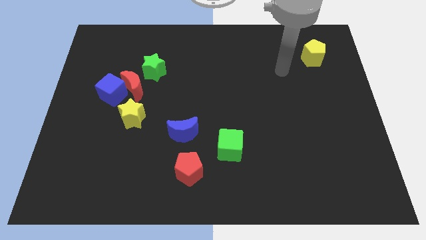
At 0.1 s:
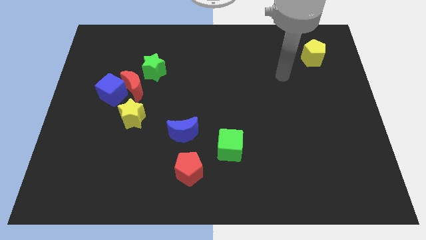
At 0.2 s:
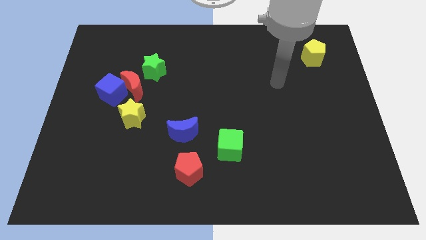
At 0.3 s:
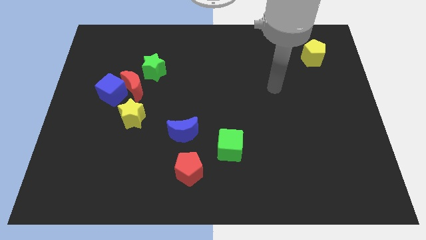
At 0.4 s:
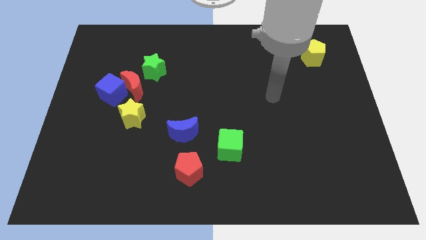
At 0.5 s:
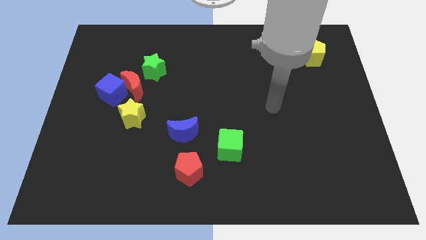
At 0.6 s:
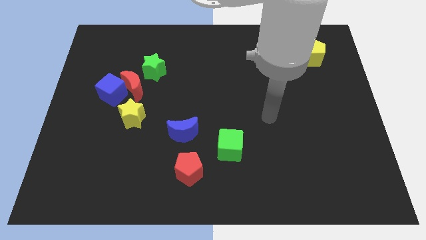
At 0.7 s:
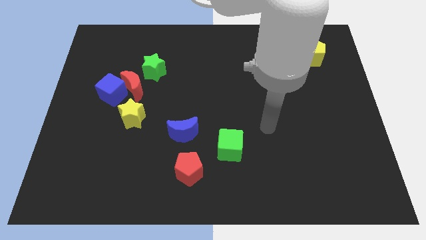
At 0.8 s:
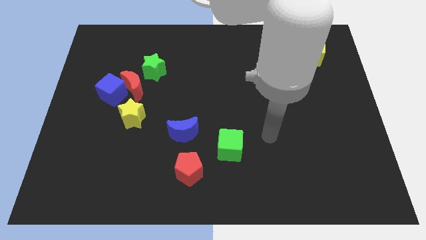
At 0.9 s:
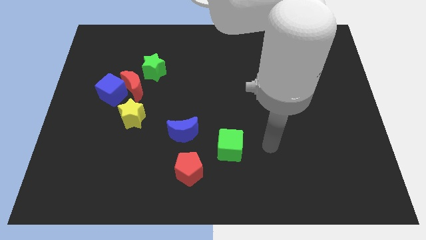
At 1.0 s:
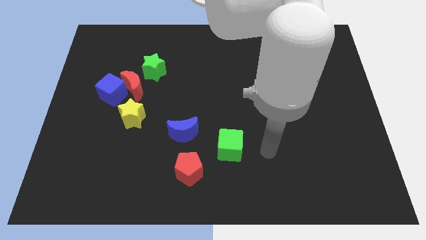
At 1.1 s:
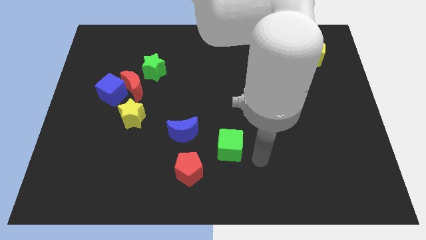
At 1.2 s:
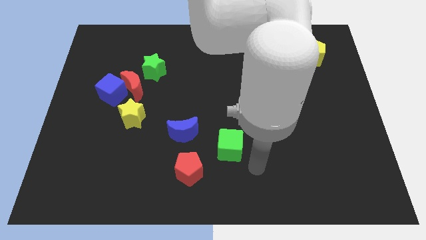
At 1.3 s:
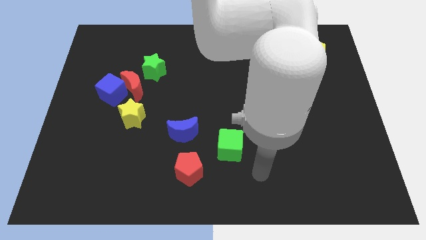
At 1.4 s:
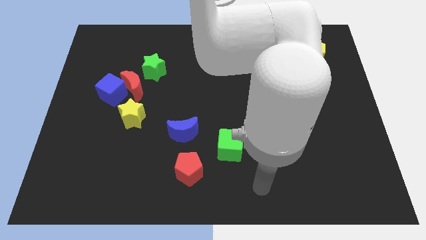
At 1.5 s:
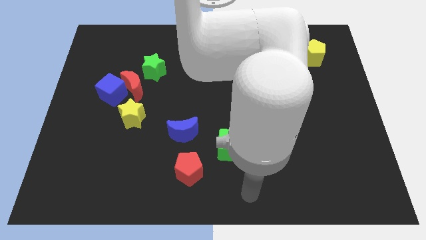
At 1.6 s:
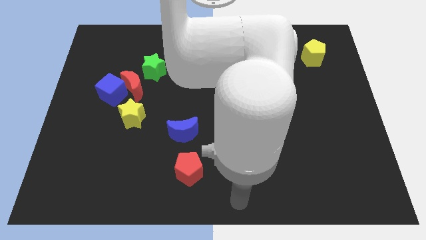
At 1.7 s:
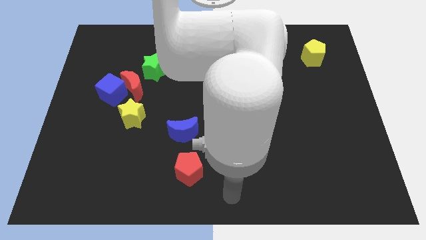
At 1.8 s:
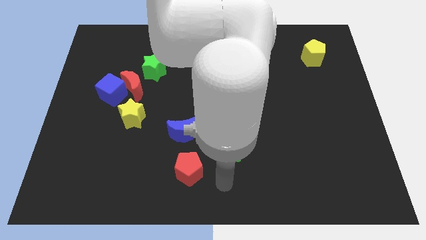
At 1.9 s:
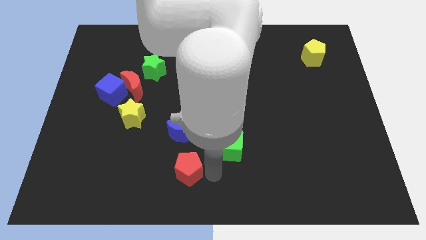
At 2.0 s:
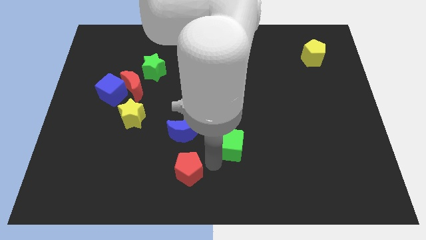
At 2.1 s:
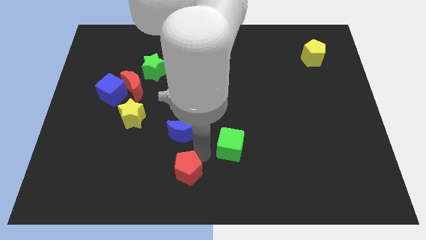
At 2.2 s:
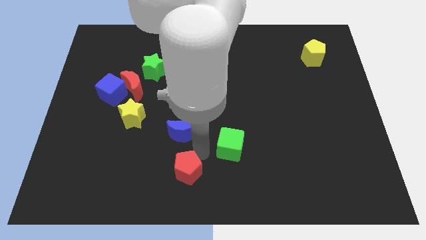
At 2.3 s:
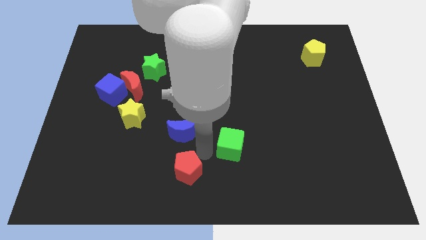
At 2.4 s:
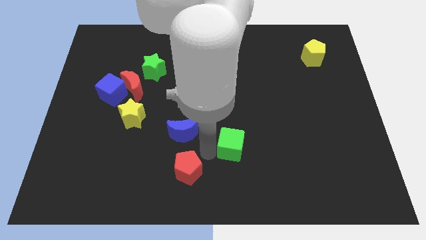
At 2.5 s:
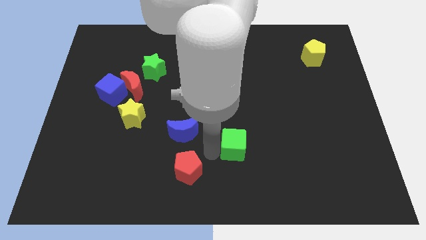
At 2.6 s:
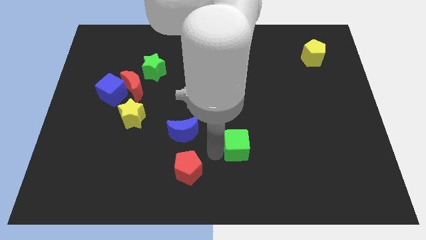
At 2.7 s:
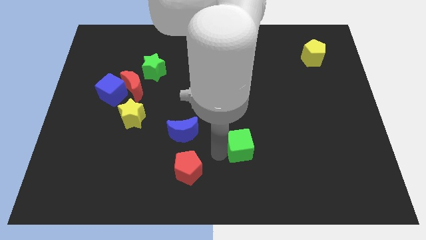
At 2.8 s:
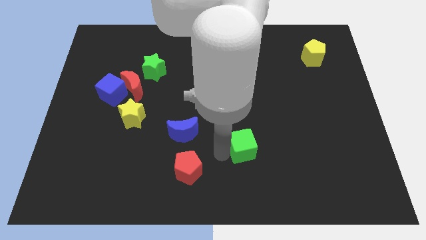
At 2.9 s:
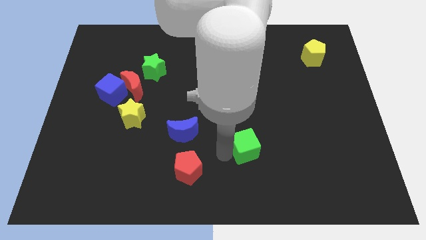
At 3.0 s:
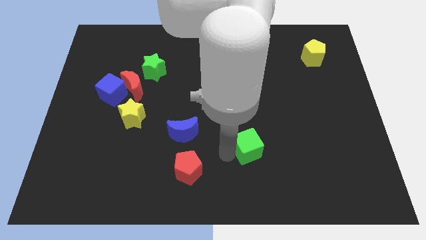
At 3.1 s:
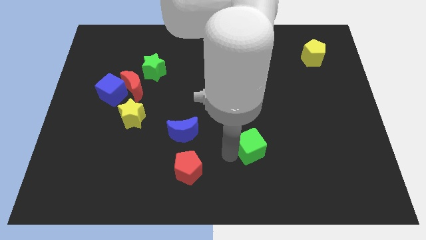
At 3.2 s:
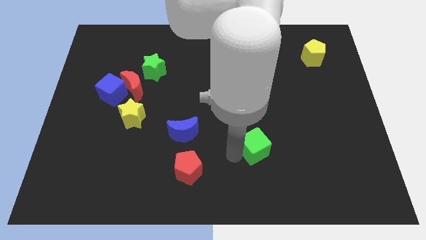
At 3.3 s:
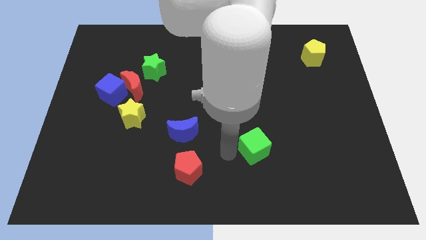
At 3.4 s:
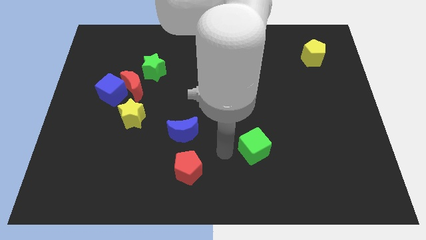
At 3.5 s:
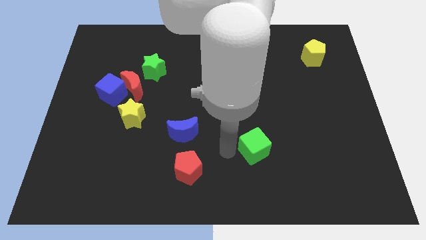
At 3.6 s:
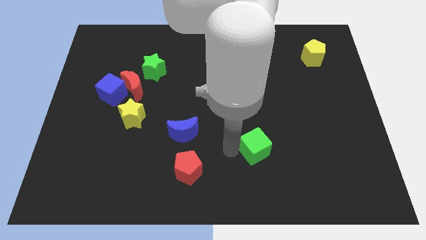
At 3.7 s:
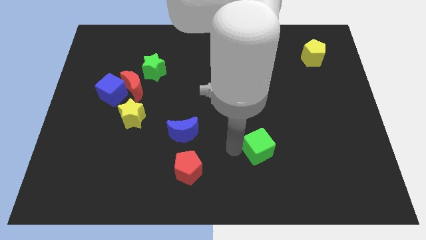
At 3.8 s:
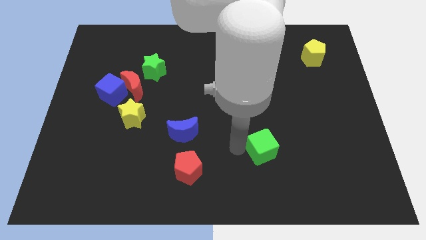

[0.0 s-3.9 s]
push the green cube a little right

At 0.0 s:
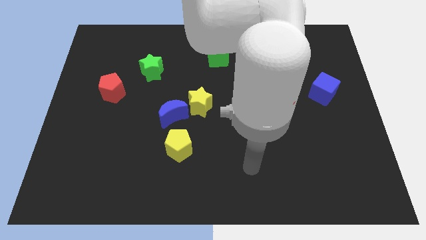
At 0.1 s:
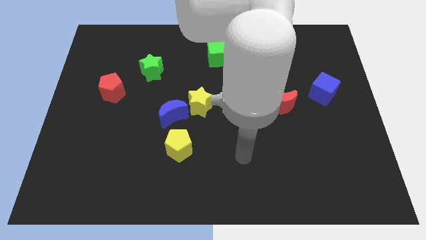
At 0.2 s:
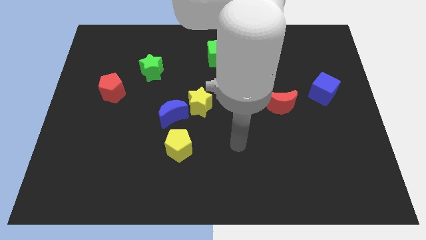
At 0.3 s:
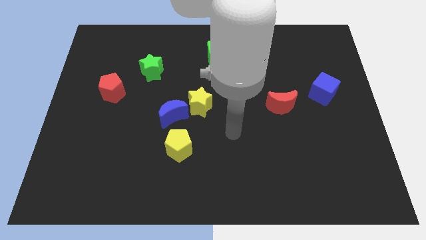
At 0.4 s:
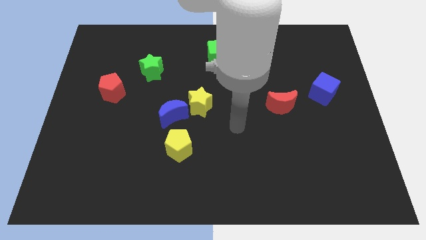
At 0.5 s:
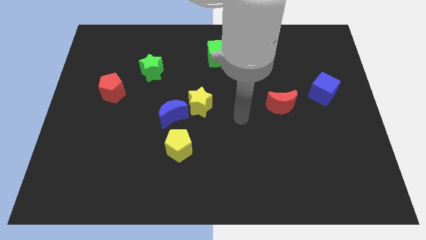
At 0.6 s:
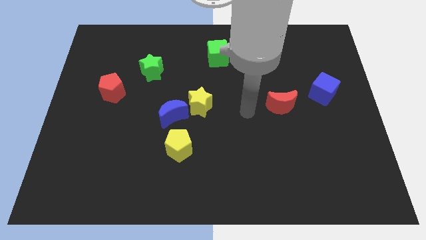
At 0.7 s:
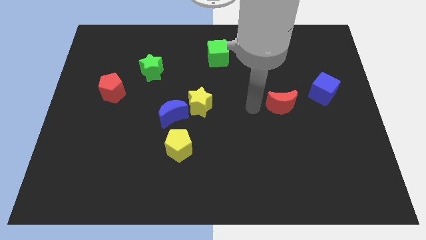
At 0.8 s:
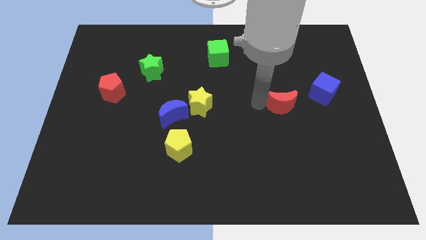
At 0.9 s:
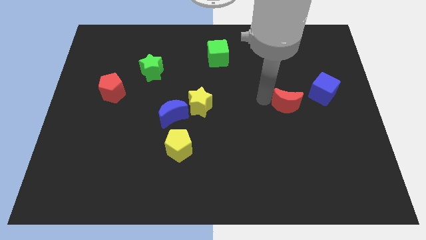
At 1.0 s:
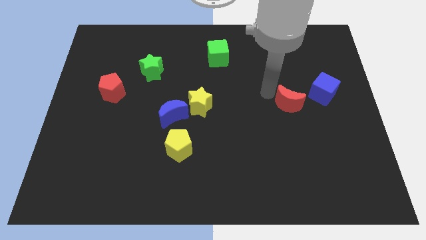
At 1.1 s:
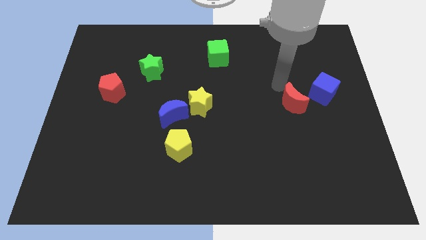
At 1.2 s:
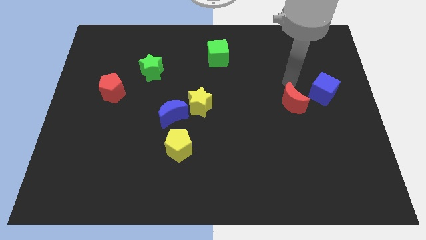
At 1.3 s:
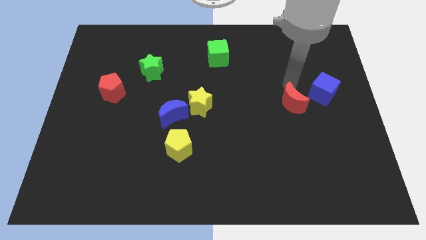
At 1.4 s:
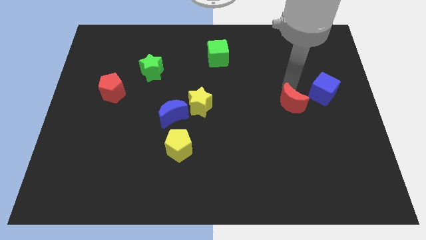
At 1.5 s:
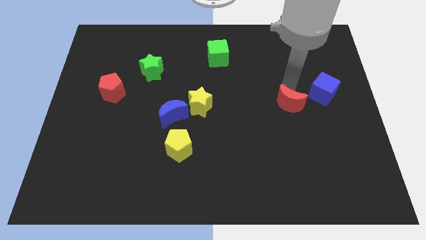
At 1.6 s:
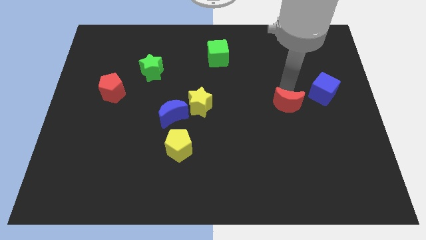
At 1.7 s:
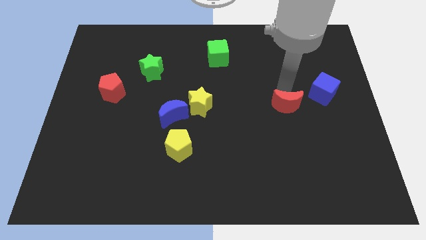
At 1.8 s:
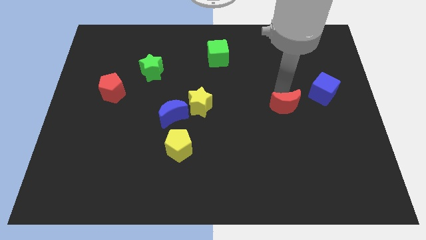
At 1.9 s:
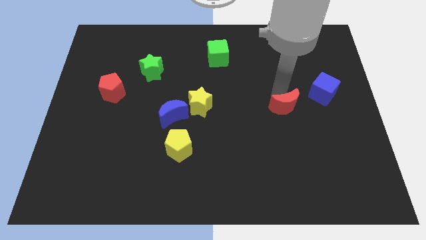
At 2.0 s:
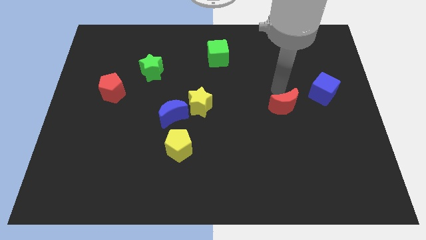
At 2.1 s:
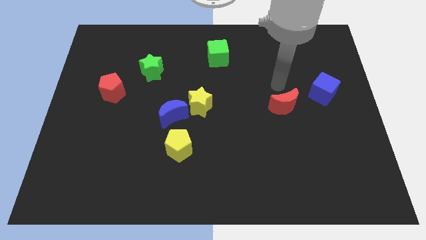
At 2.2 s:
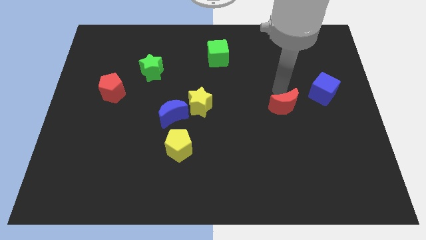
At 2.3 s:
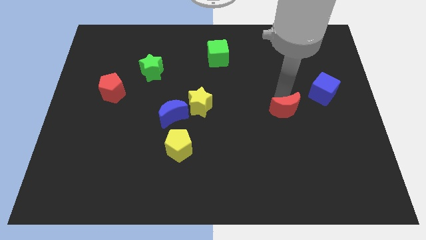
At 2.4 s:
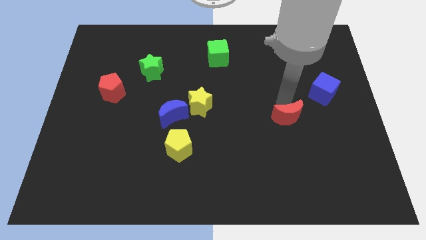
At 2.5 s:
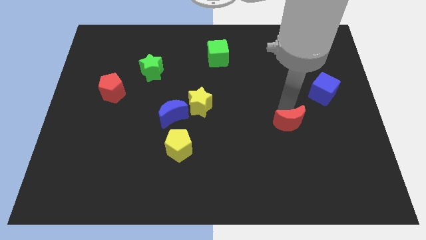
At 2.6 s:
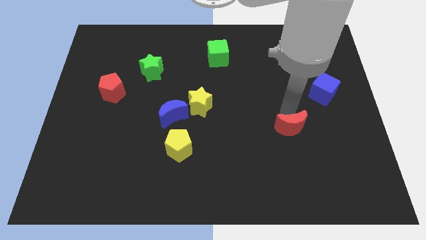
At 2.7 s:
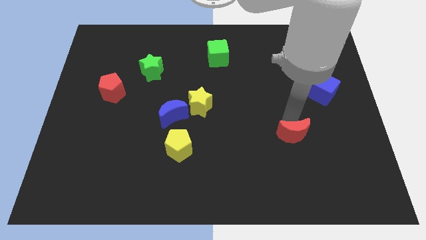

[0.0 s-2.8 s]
slide the red moon a little bit down

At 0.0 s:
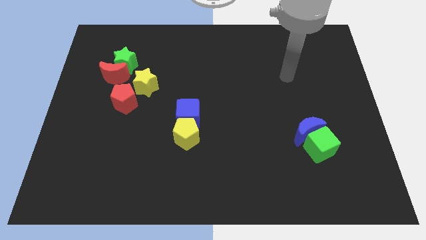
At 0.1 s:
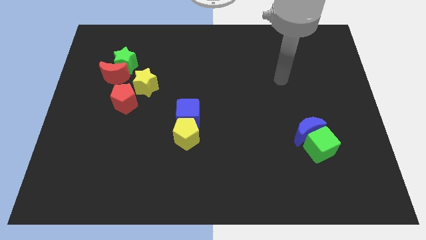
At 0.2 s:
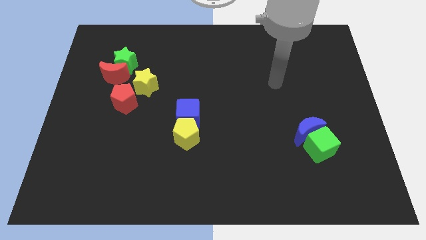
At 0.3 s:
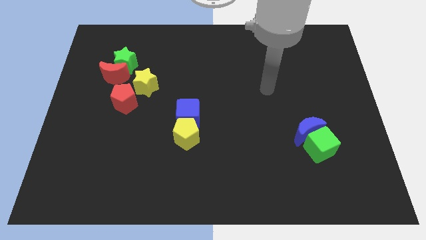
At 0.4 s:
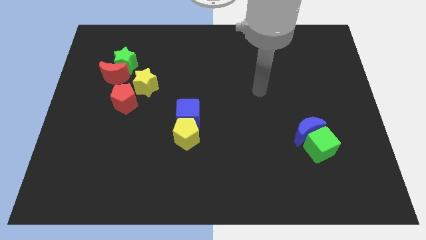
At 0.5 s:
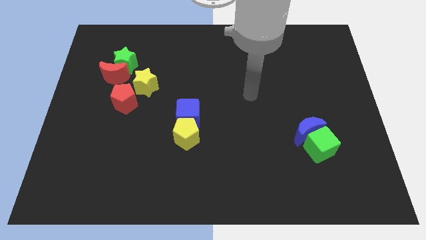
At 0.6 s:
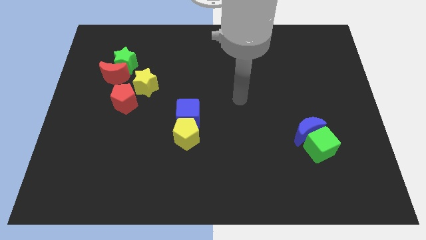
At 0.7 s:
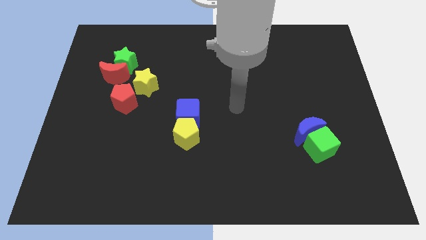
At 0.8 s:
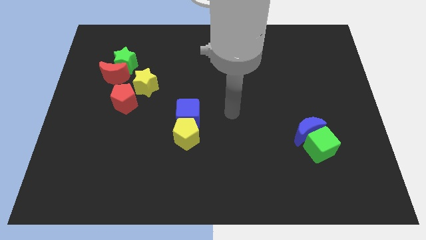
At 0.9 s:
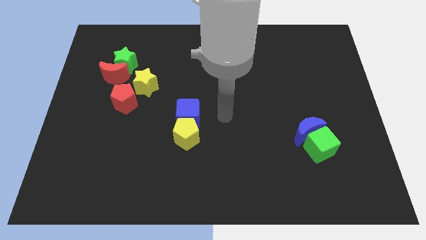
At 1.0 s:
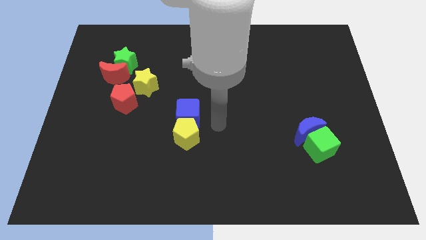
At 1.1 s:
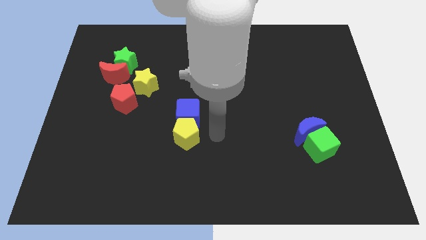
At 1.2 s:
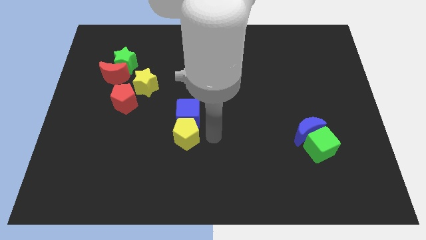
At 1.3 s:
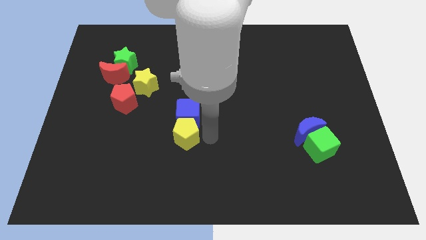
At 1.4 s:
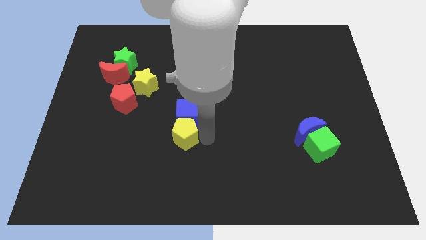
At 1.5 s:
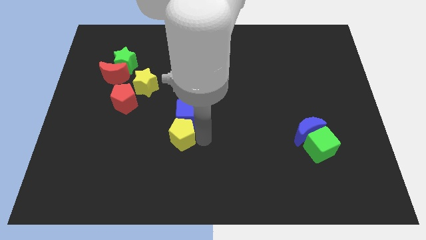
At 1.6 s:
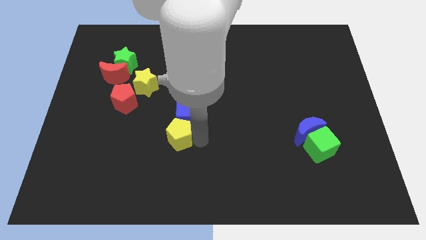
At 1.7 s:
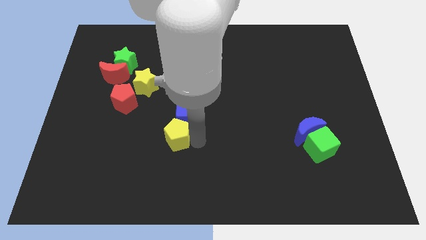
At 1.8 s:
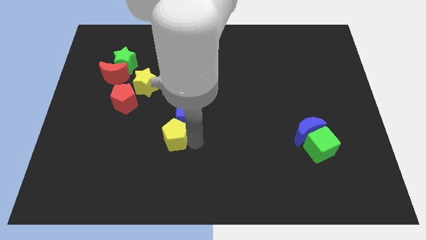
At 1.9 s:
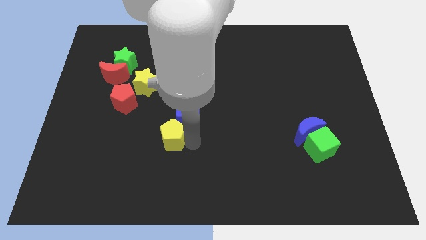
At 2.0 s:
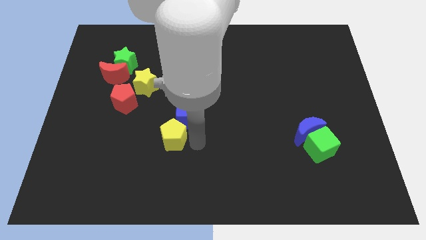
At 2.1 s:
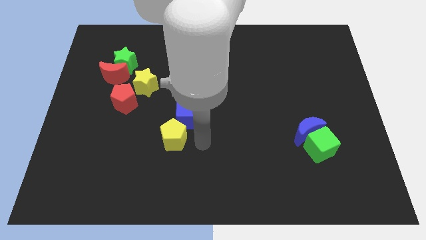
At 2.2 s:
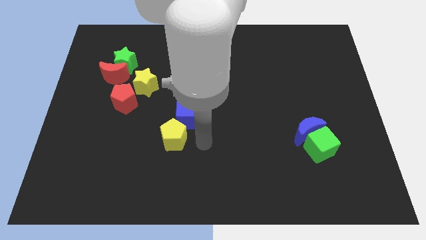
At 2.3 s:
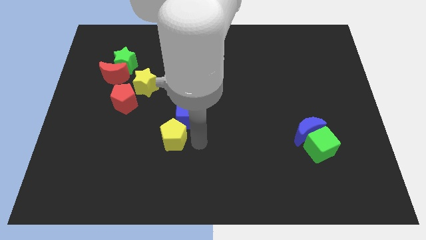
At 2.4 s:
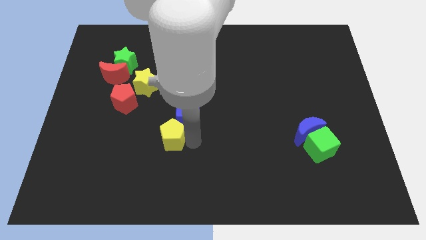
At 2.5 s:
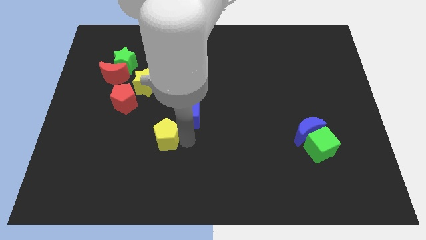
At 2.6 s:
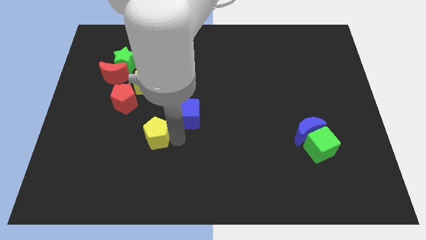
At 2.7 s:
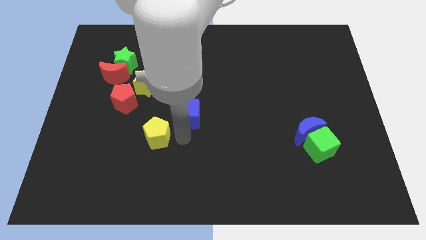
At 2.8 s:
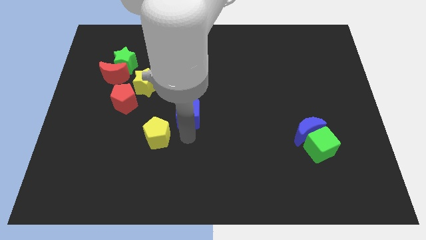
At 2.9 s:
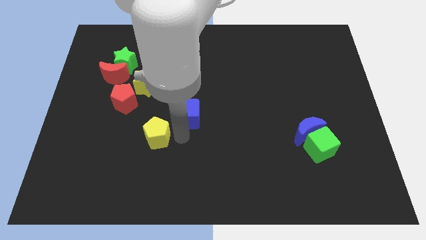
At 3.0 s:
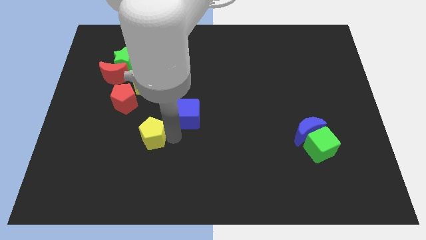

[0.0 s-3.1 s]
slide the yellow pentagon left a little
